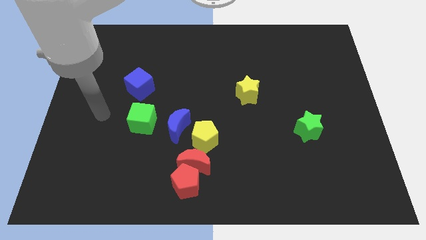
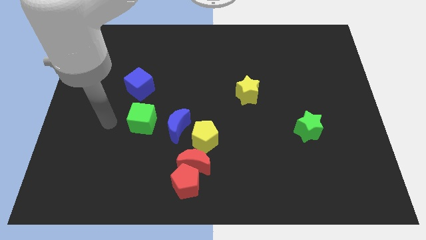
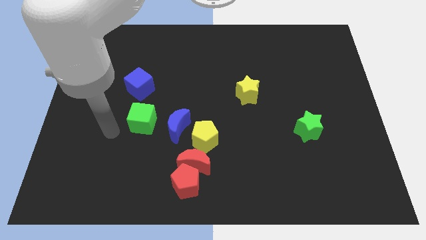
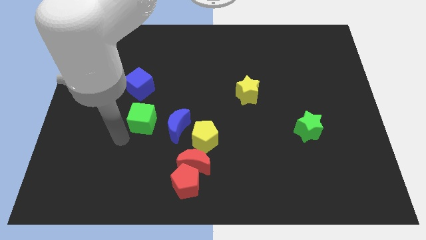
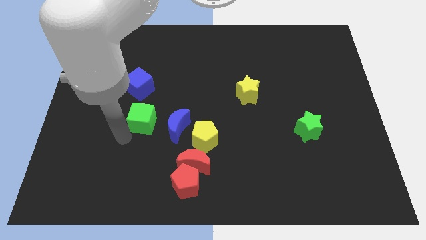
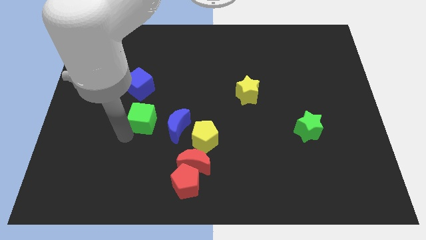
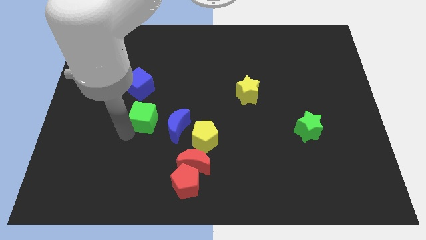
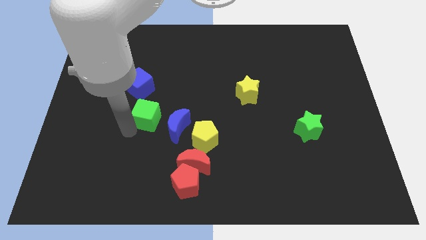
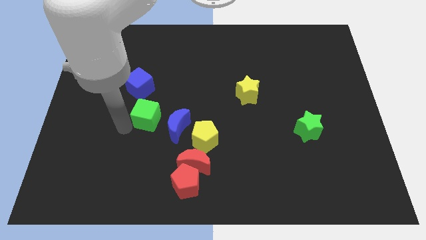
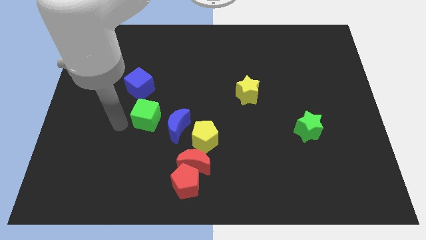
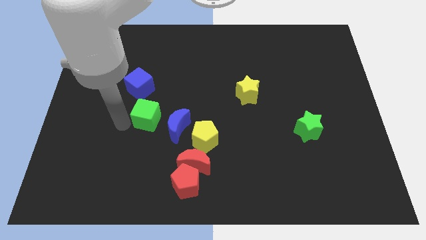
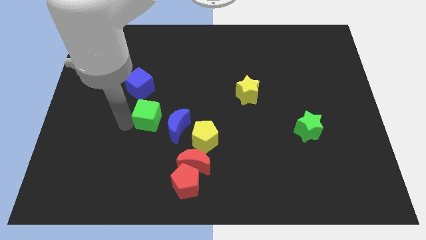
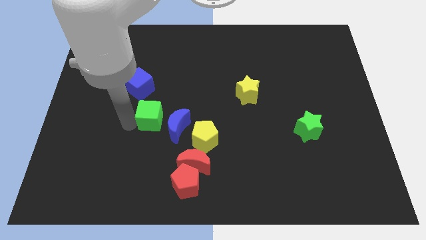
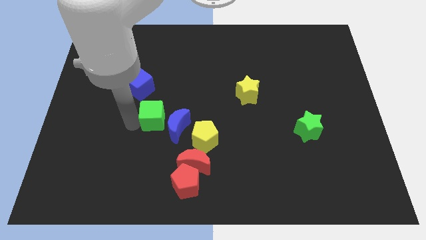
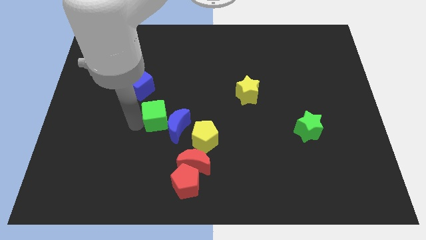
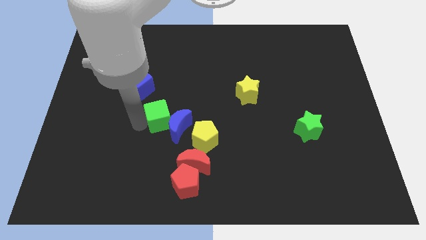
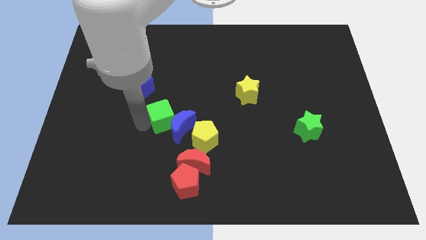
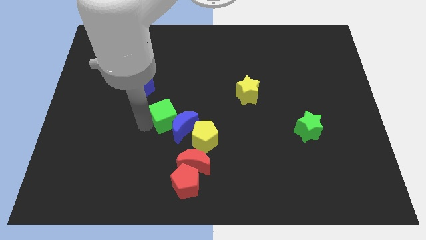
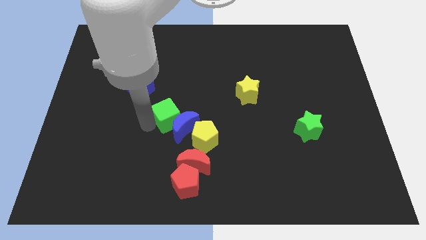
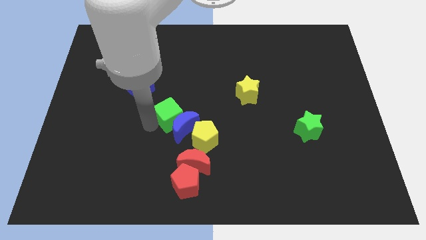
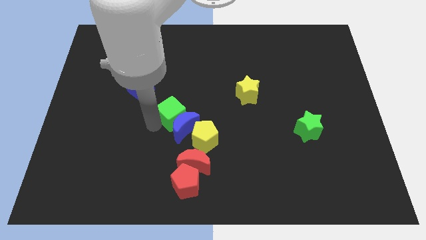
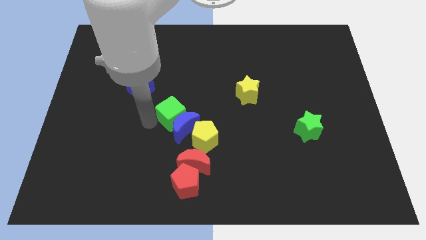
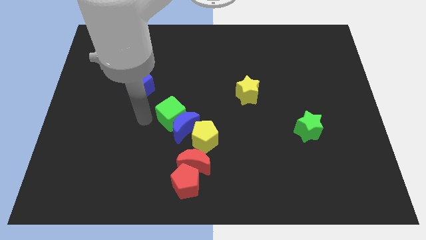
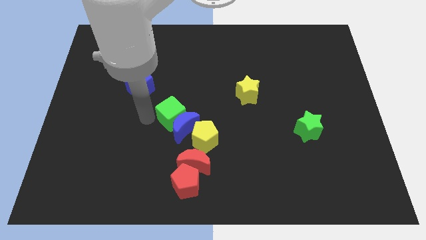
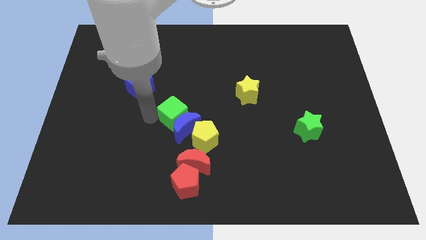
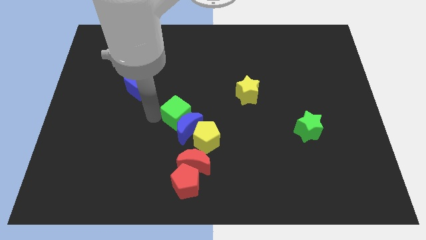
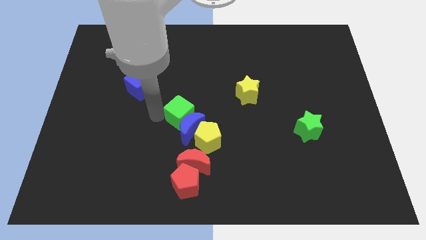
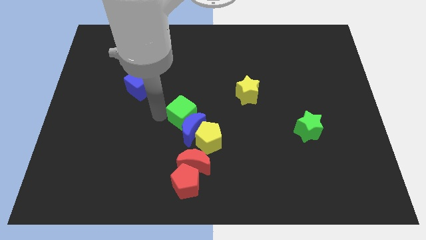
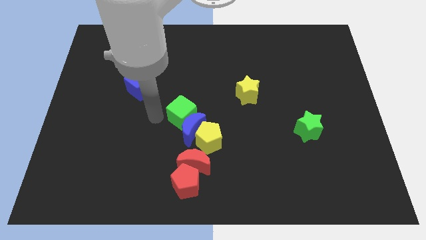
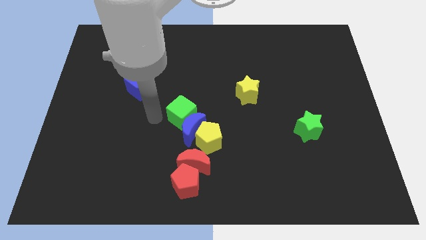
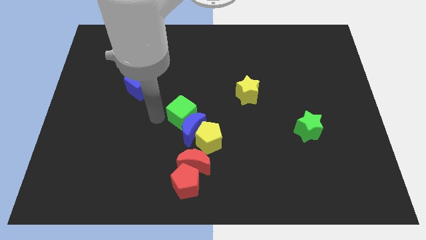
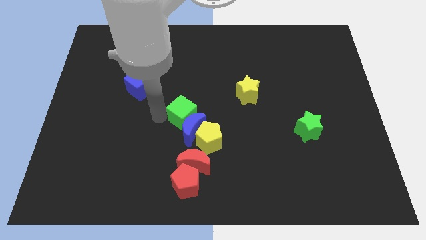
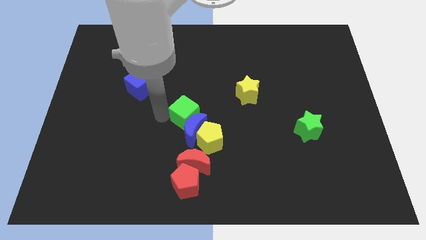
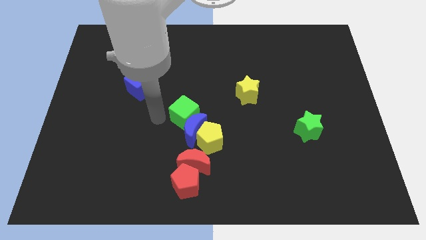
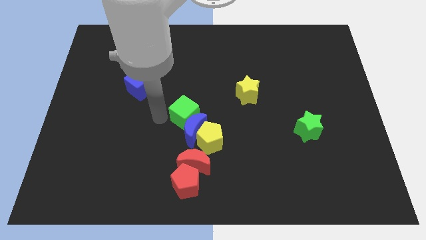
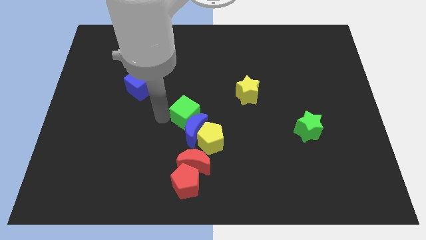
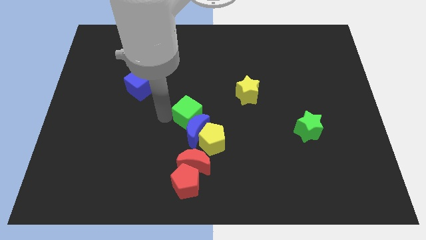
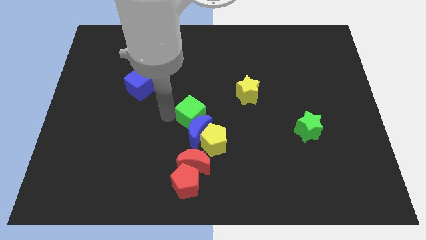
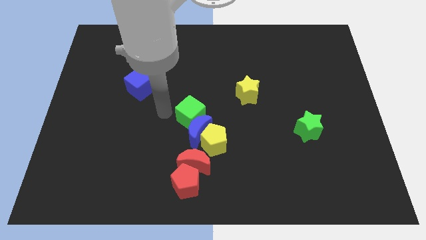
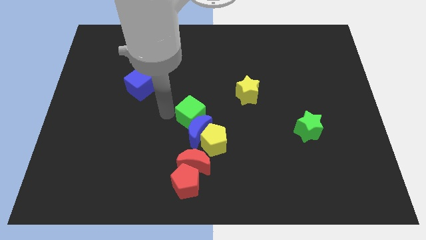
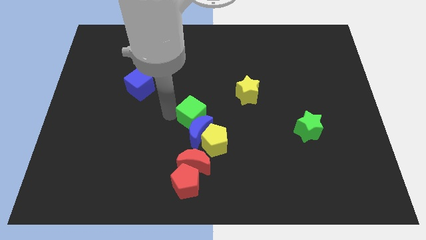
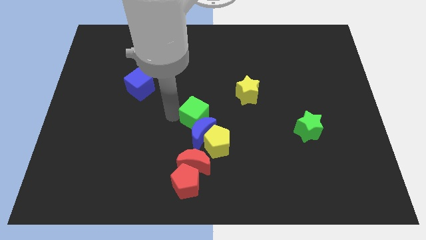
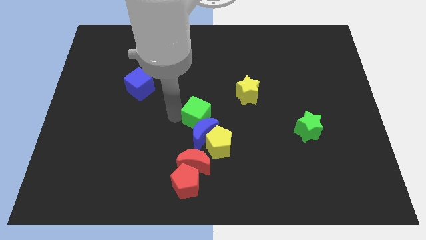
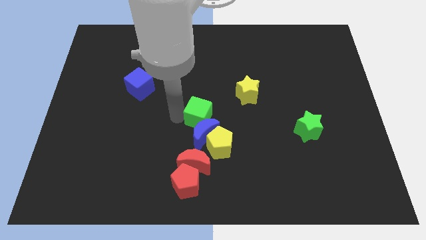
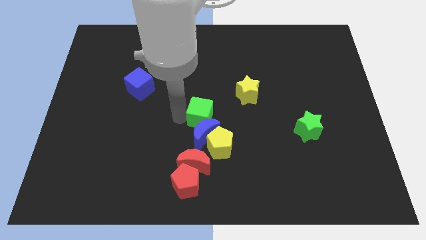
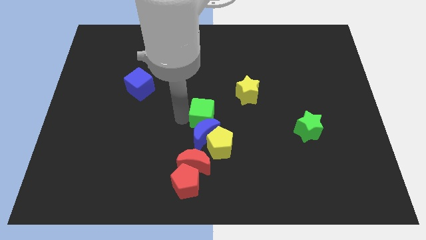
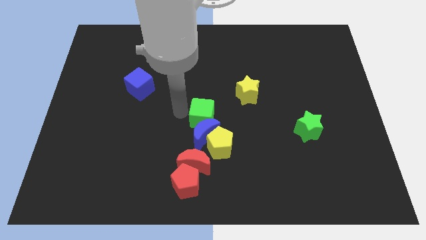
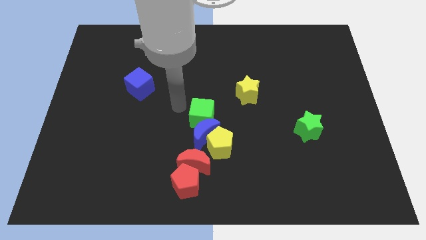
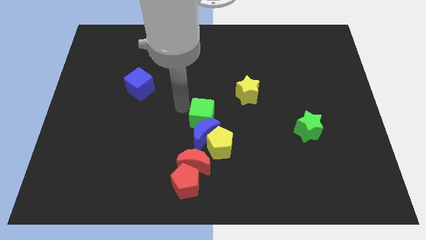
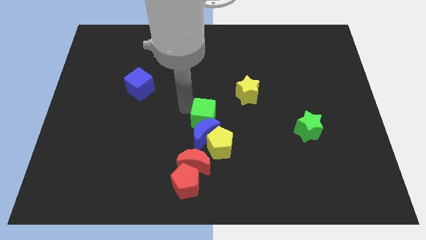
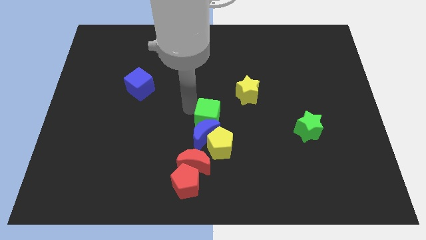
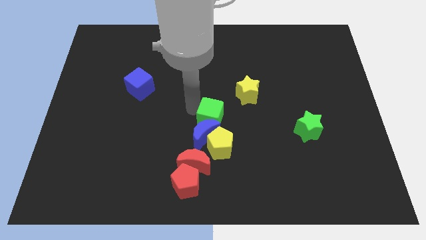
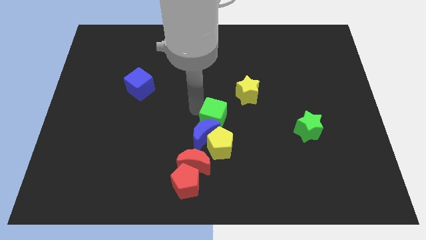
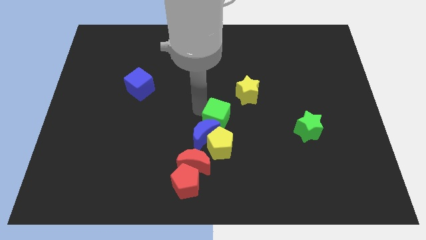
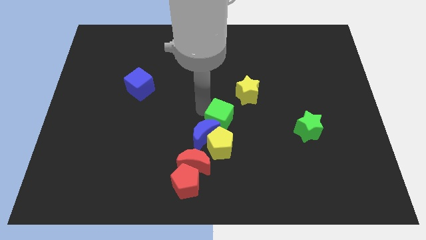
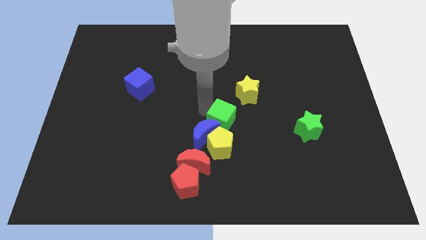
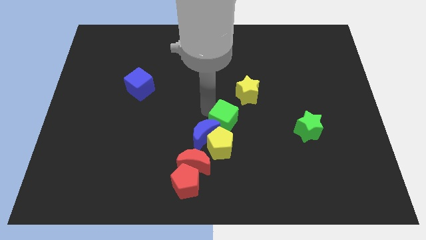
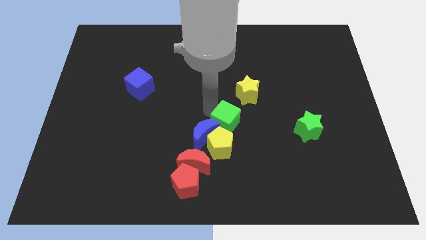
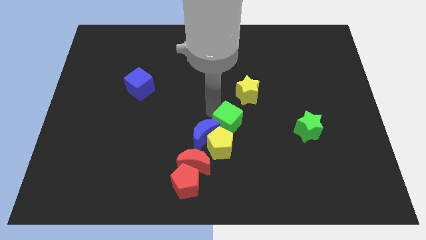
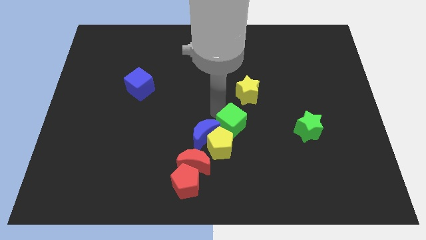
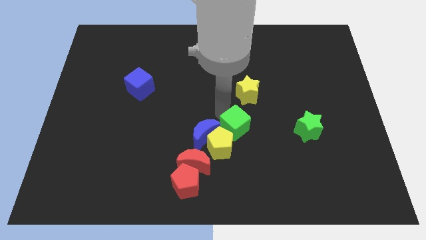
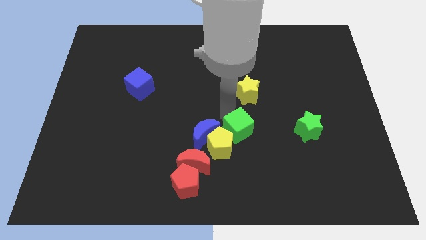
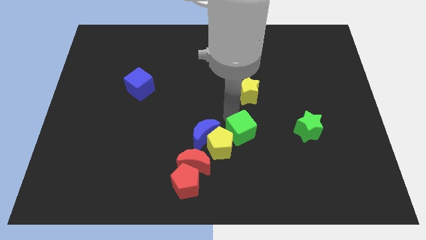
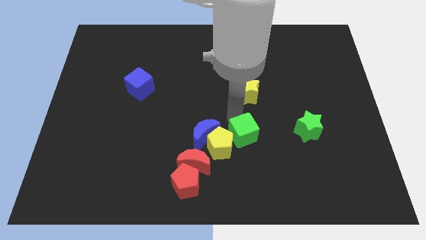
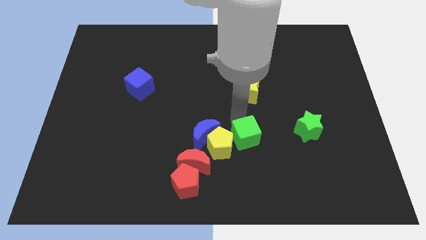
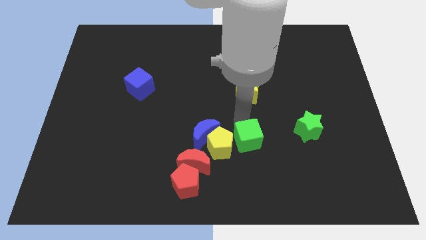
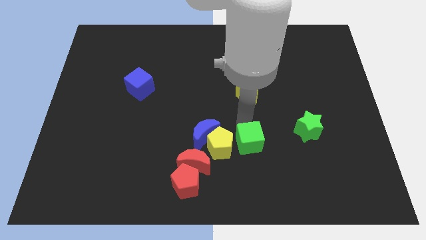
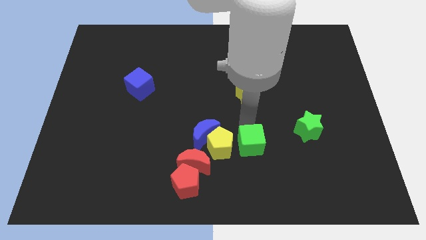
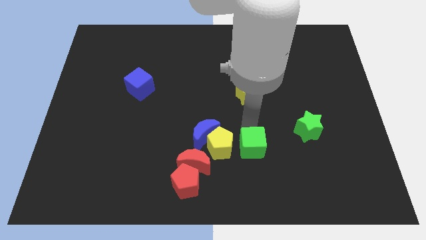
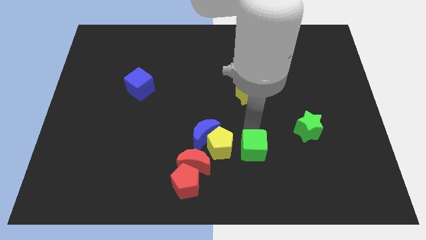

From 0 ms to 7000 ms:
move the green cube diagonally down and to the right of the yellow pentagon

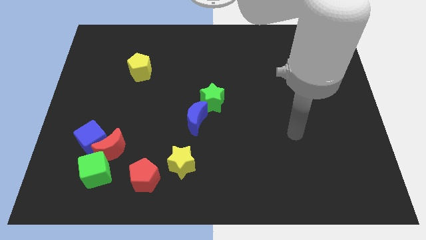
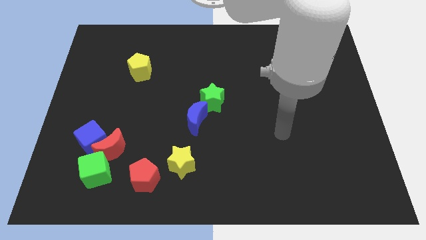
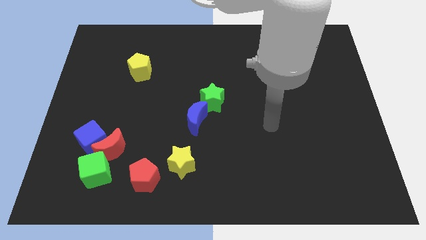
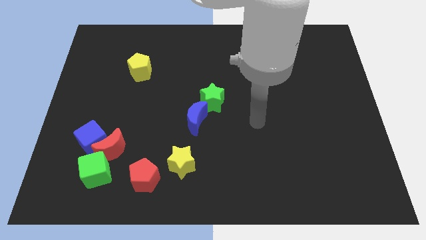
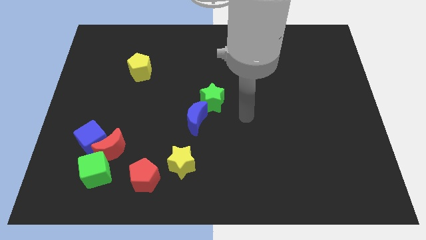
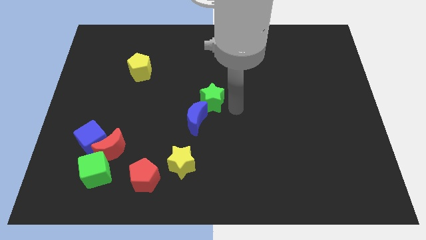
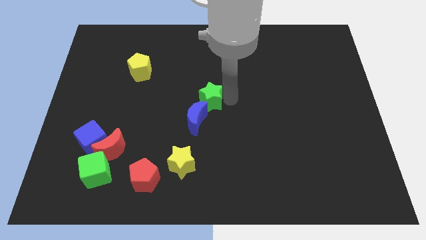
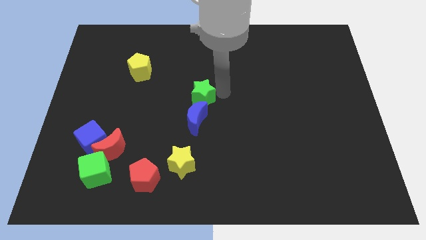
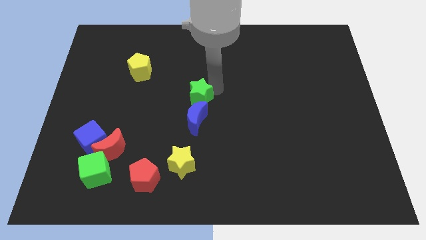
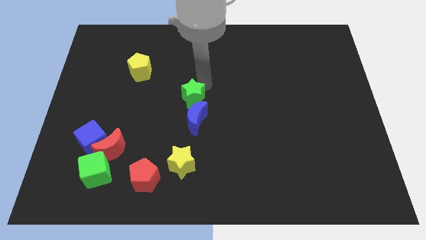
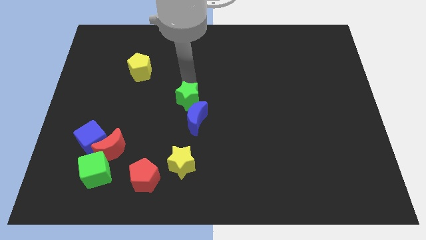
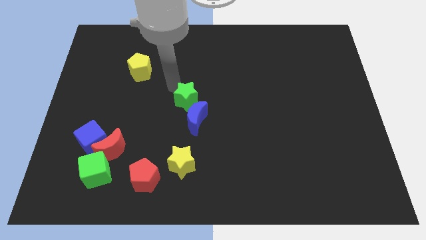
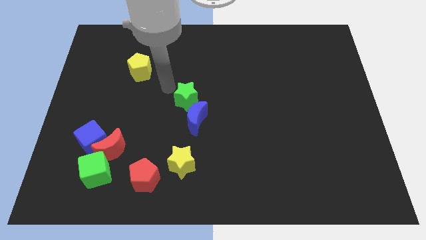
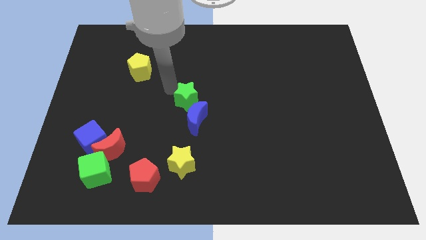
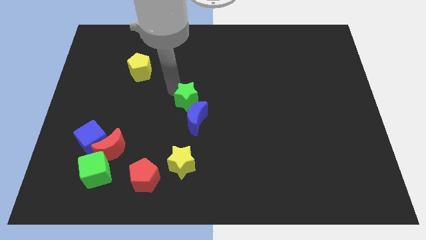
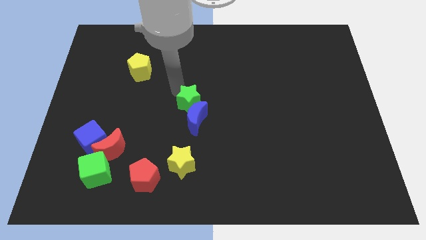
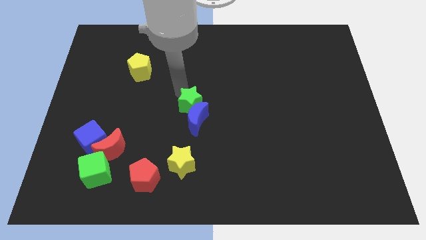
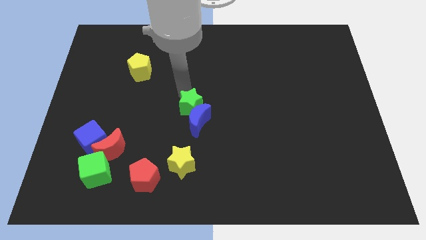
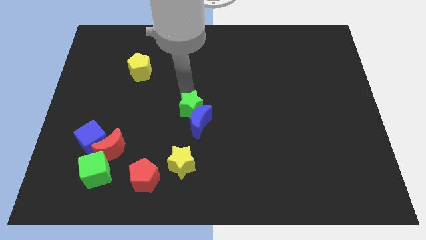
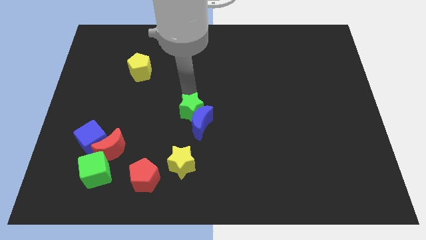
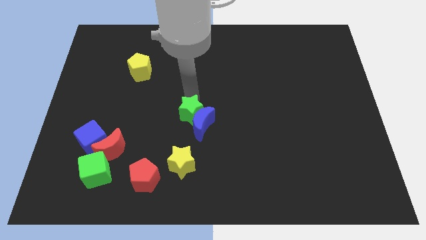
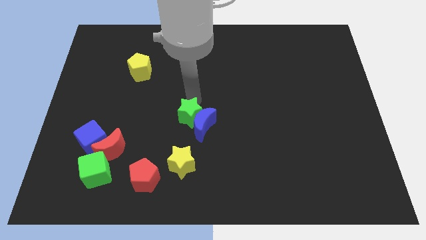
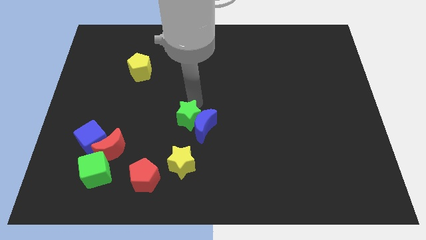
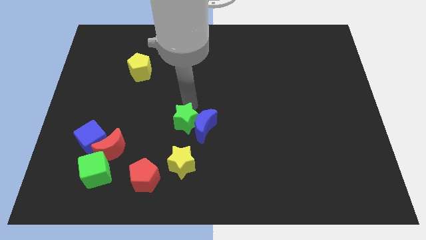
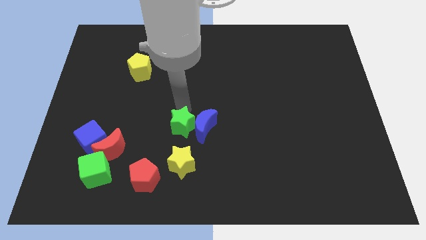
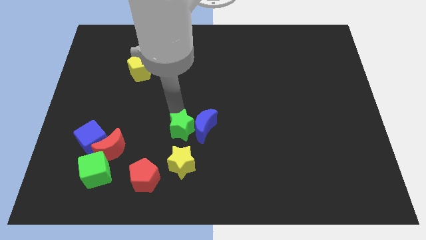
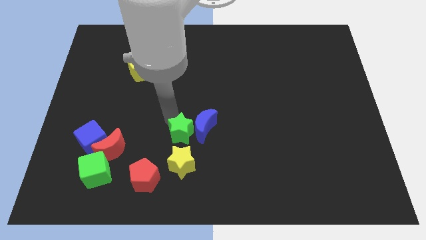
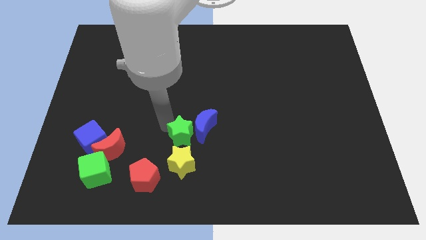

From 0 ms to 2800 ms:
move the green star to the top right of the red pentagon
